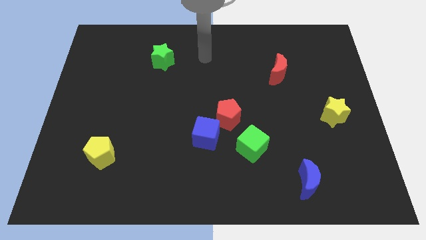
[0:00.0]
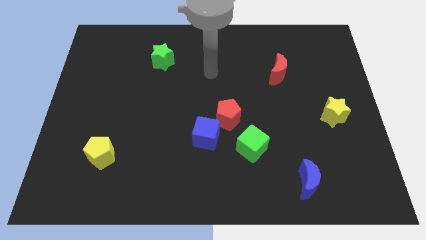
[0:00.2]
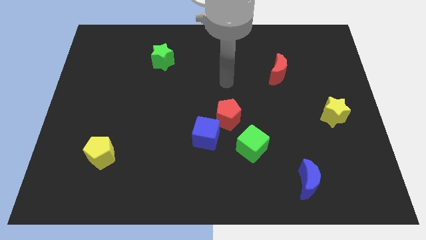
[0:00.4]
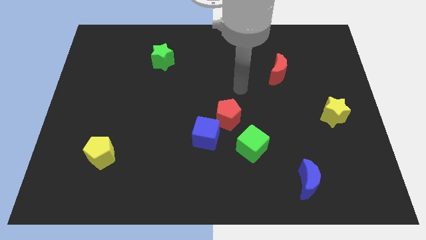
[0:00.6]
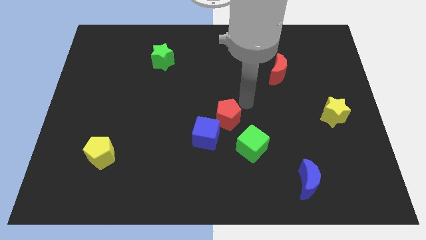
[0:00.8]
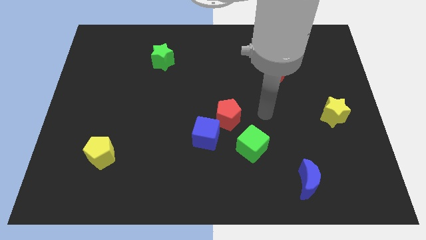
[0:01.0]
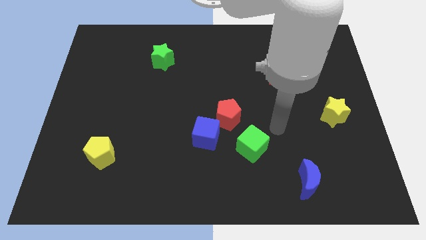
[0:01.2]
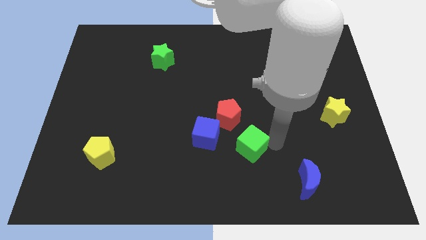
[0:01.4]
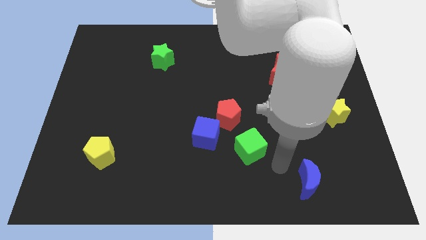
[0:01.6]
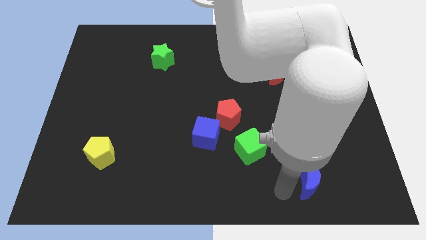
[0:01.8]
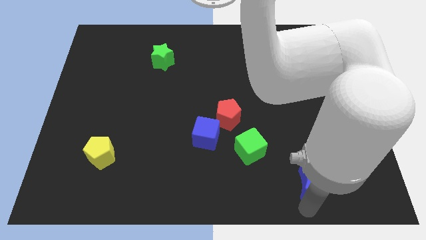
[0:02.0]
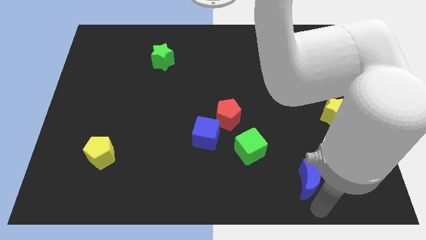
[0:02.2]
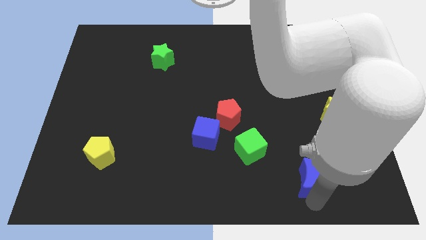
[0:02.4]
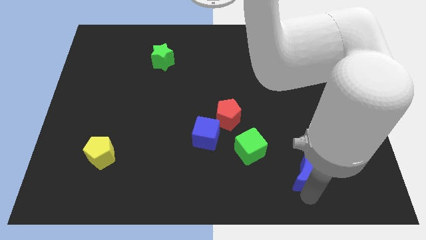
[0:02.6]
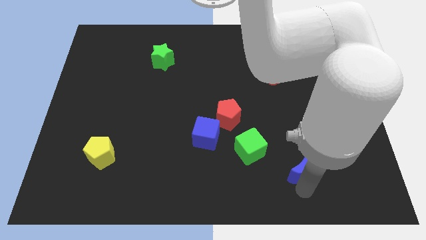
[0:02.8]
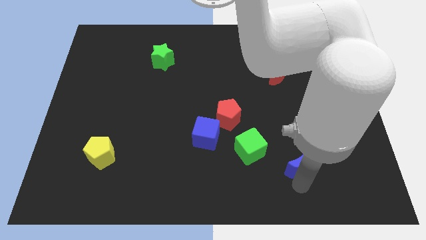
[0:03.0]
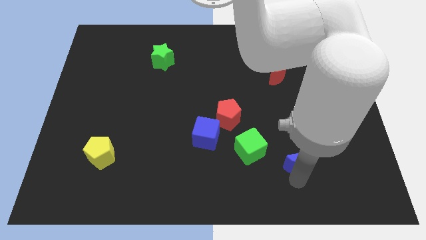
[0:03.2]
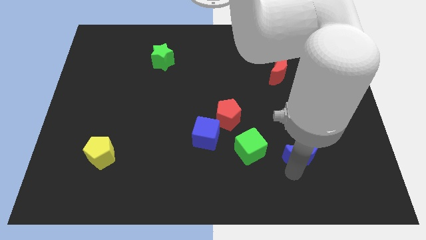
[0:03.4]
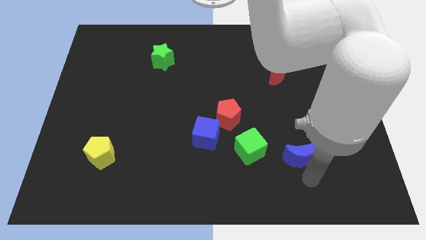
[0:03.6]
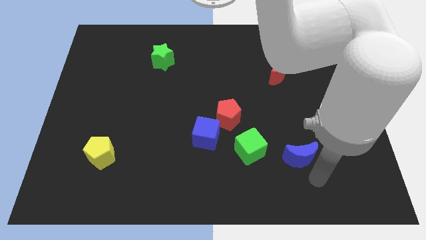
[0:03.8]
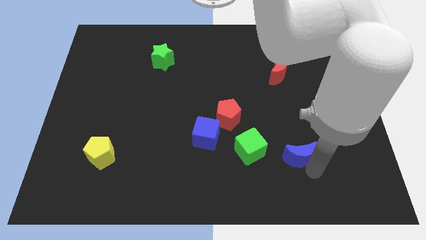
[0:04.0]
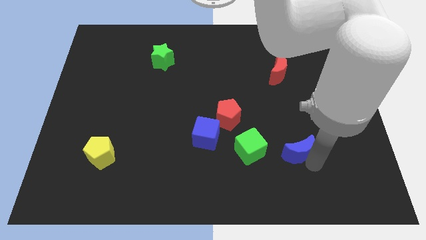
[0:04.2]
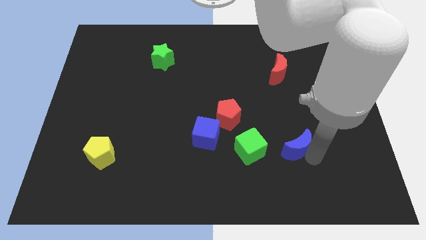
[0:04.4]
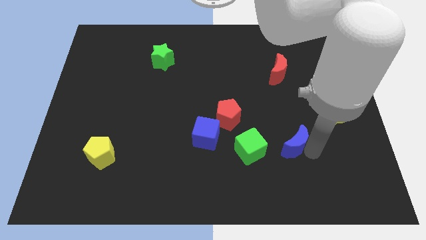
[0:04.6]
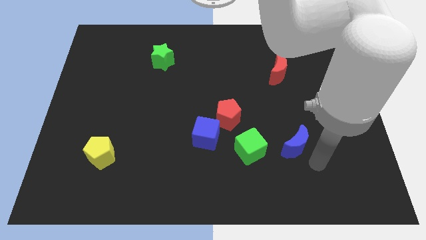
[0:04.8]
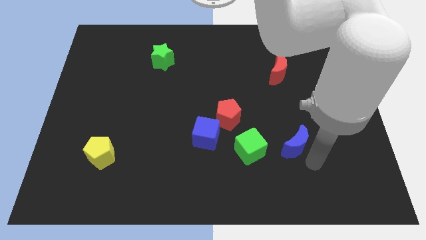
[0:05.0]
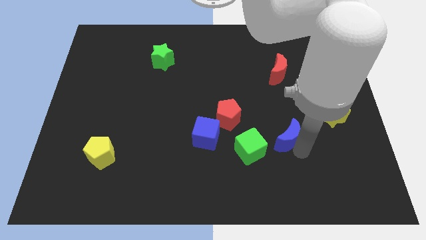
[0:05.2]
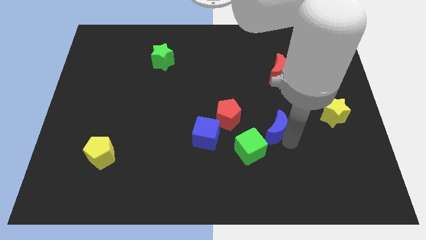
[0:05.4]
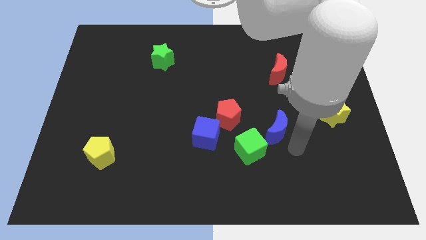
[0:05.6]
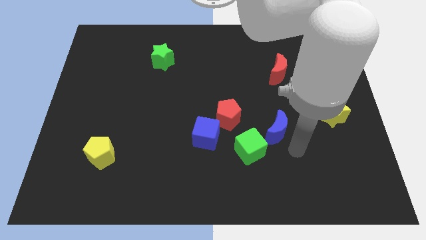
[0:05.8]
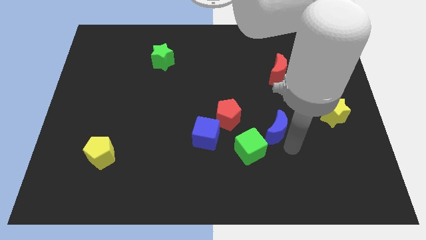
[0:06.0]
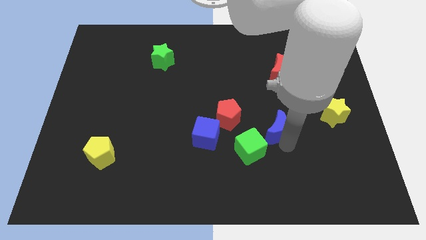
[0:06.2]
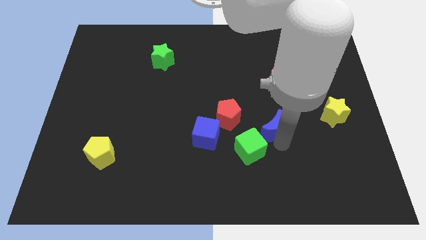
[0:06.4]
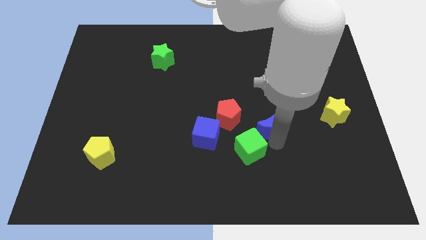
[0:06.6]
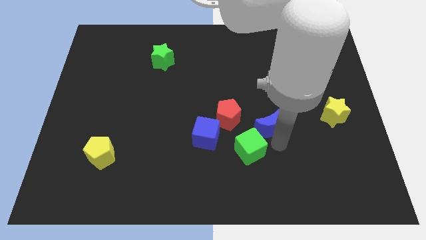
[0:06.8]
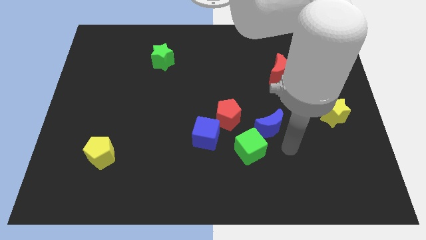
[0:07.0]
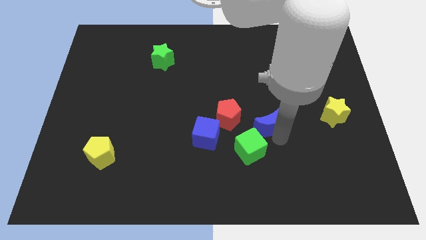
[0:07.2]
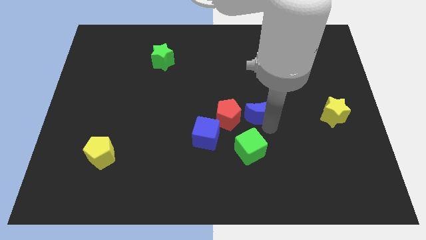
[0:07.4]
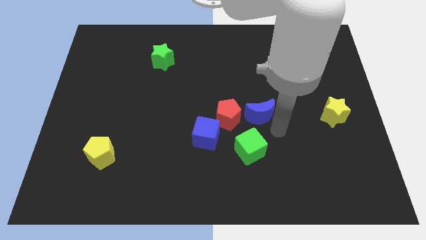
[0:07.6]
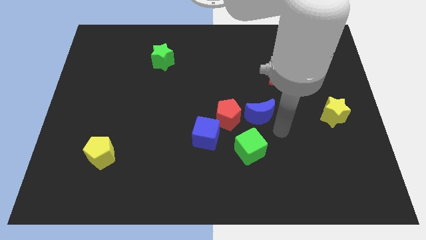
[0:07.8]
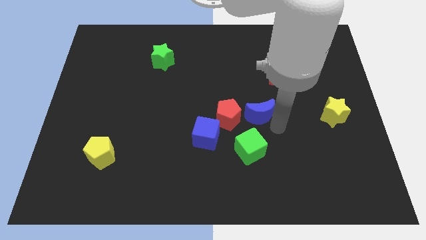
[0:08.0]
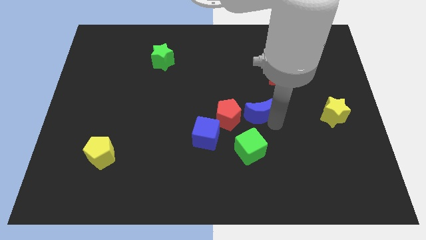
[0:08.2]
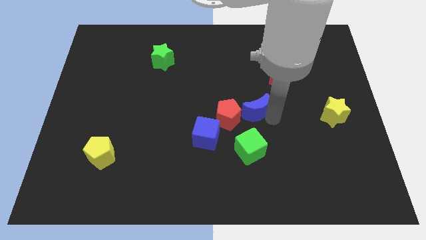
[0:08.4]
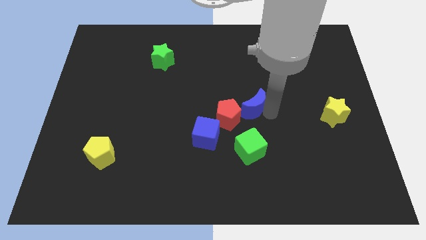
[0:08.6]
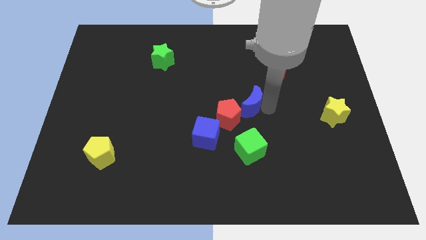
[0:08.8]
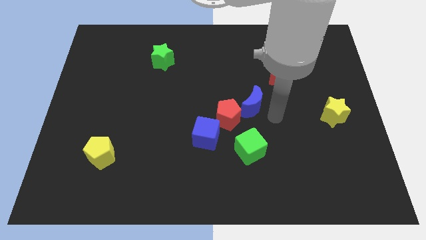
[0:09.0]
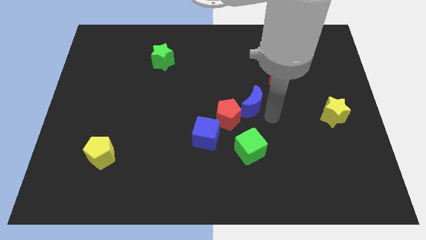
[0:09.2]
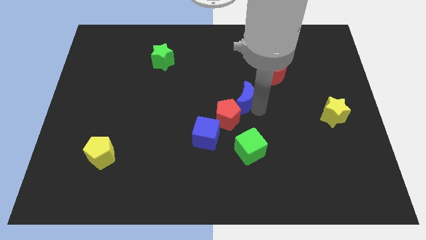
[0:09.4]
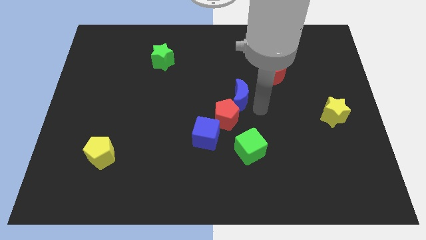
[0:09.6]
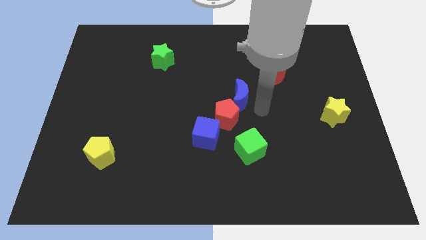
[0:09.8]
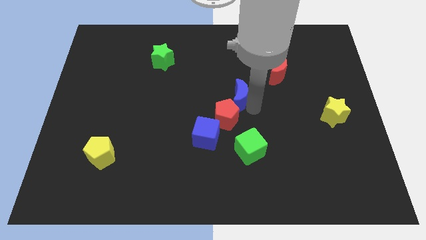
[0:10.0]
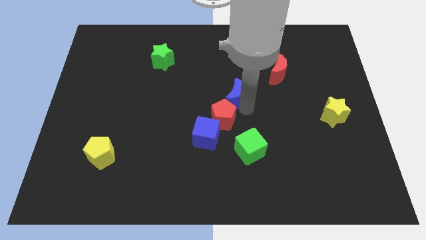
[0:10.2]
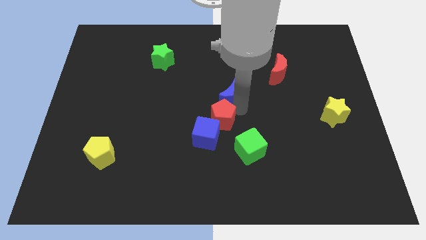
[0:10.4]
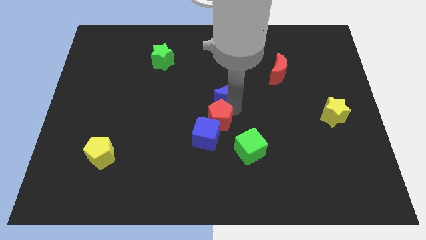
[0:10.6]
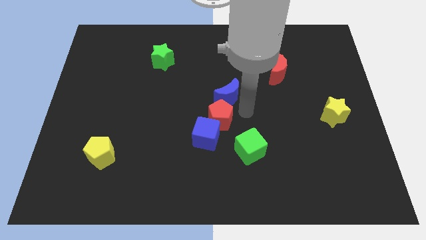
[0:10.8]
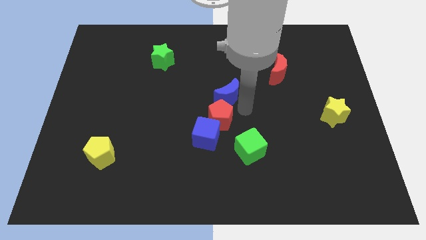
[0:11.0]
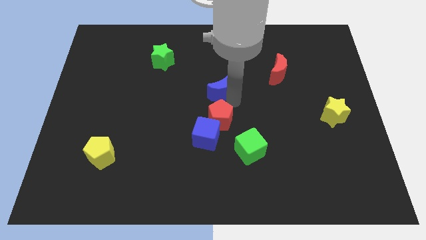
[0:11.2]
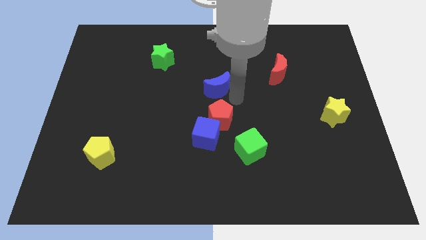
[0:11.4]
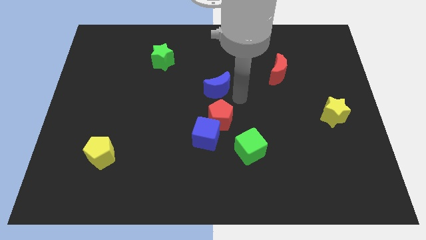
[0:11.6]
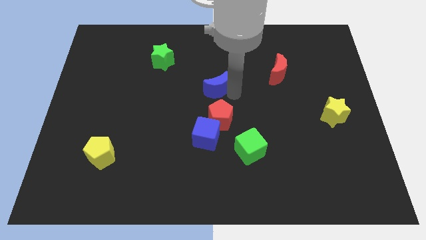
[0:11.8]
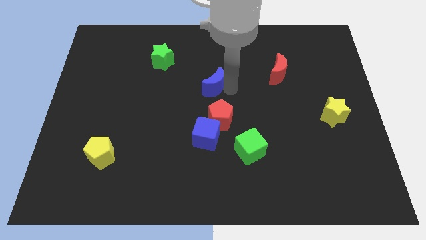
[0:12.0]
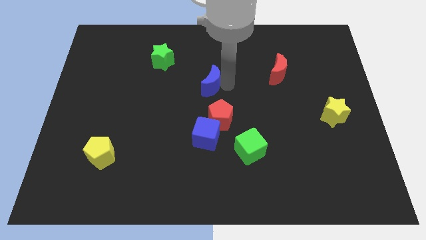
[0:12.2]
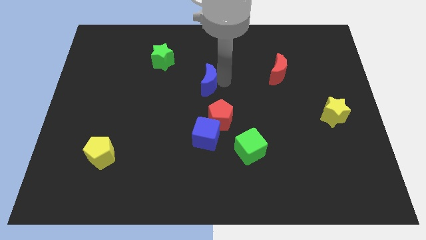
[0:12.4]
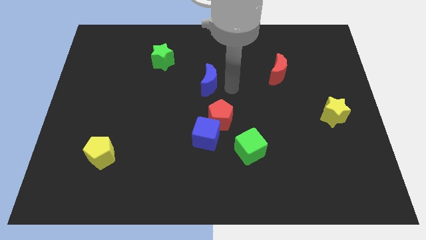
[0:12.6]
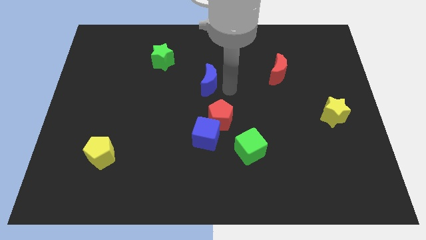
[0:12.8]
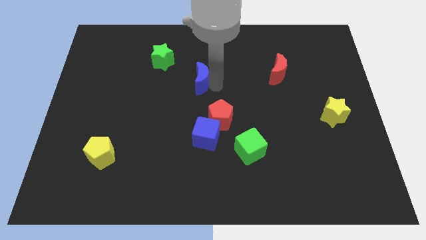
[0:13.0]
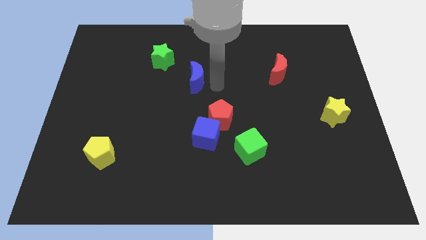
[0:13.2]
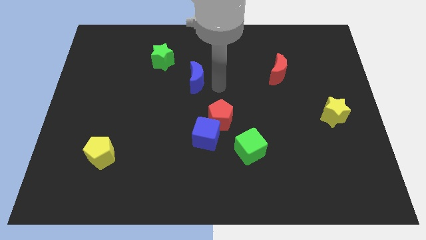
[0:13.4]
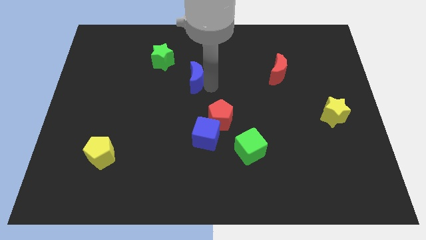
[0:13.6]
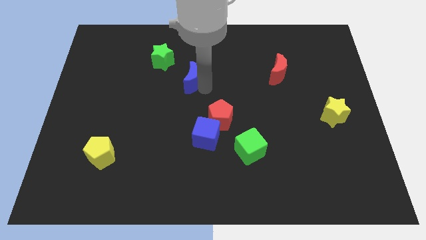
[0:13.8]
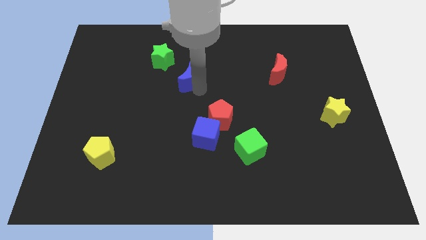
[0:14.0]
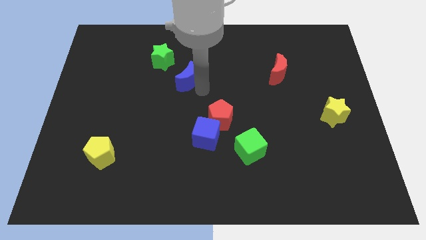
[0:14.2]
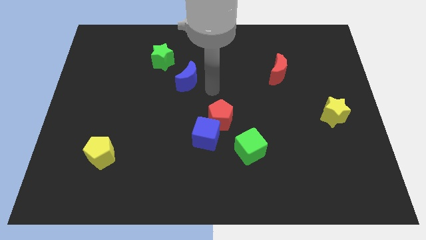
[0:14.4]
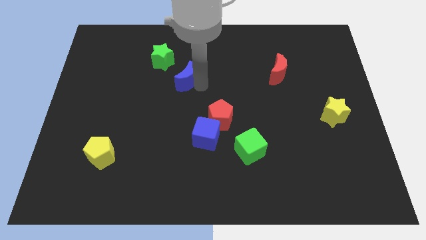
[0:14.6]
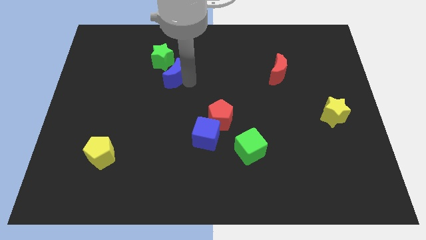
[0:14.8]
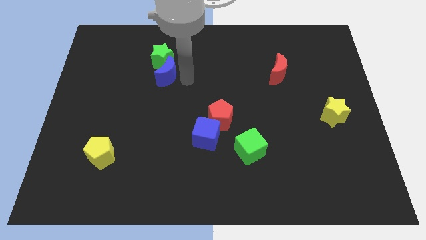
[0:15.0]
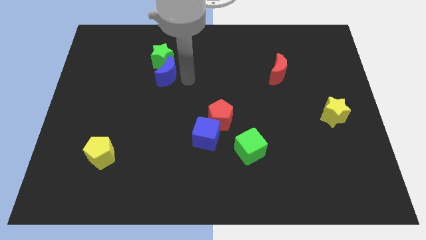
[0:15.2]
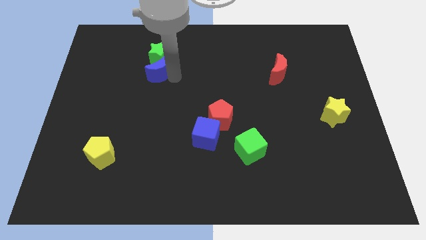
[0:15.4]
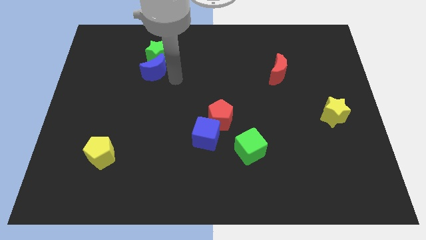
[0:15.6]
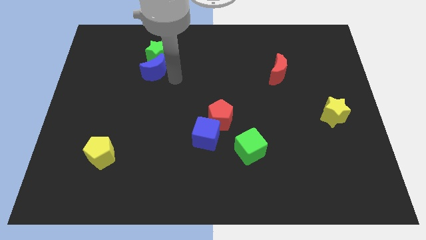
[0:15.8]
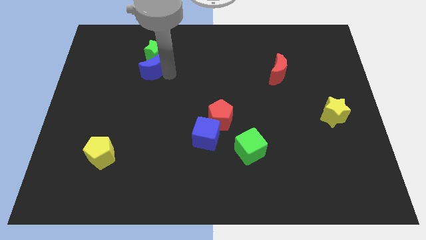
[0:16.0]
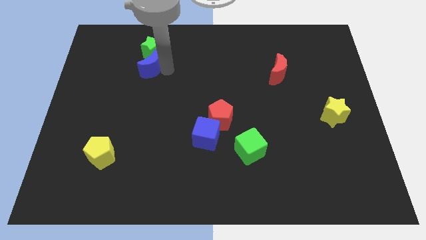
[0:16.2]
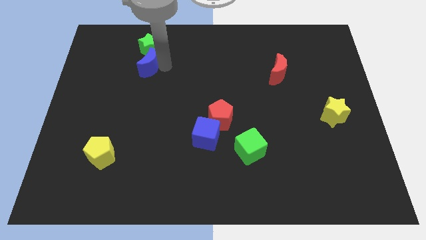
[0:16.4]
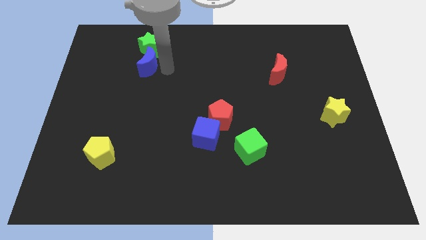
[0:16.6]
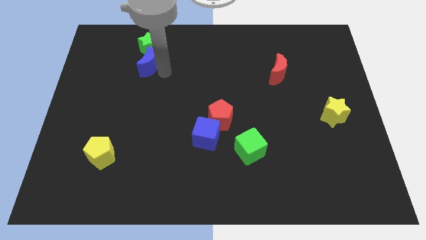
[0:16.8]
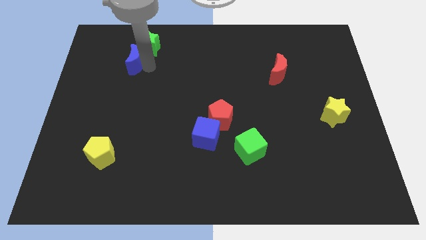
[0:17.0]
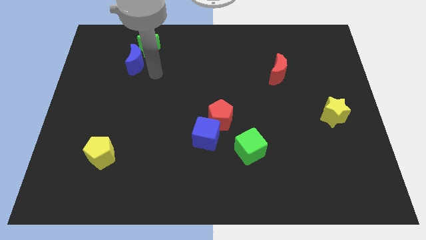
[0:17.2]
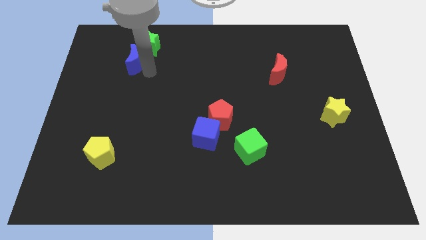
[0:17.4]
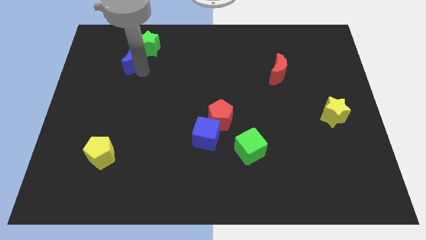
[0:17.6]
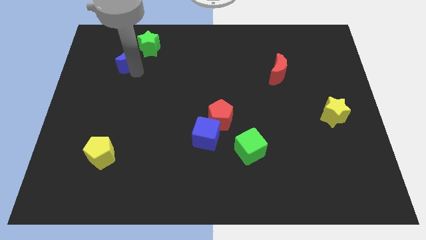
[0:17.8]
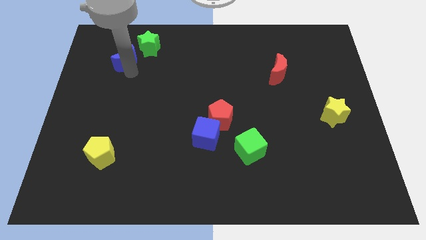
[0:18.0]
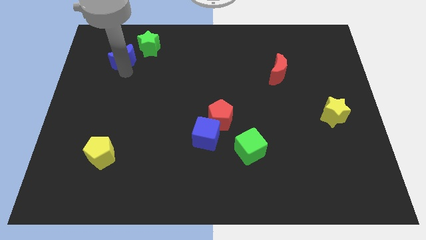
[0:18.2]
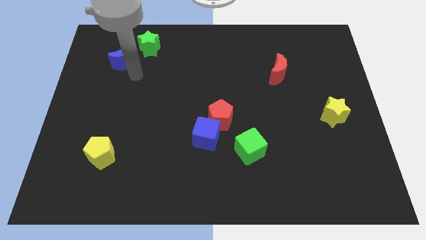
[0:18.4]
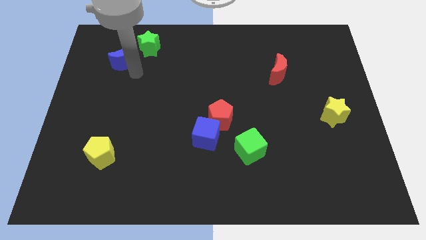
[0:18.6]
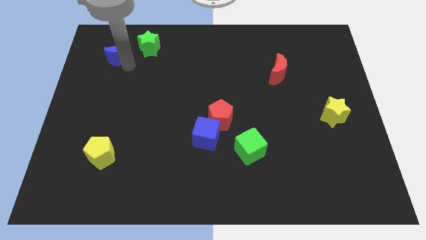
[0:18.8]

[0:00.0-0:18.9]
put the blue moon just left of the green star
